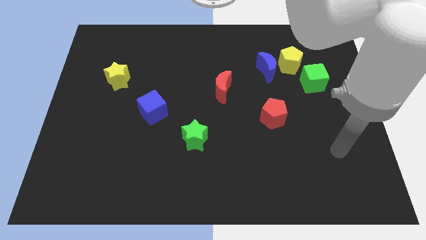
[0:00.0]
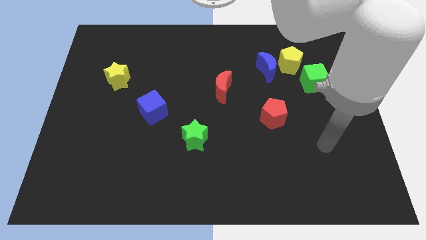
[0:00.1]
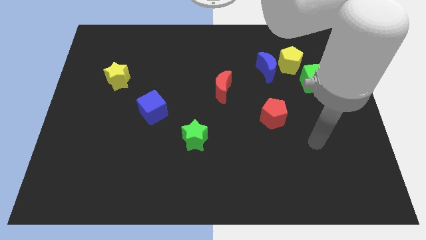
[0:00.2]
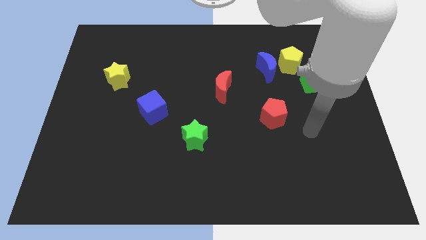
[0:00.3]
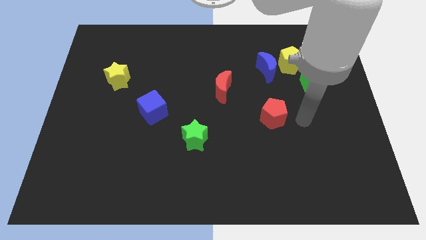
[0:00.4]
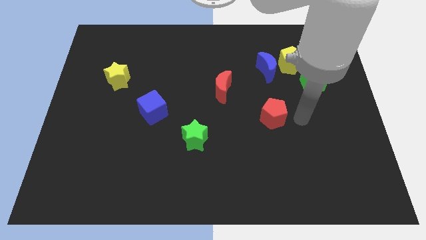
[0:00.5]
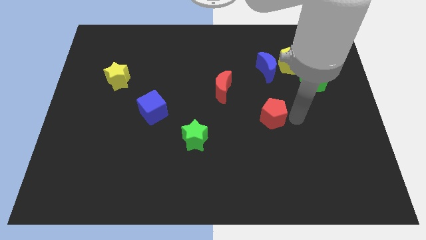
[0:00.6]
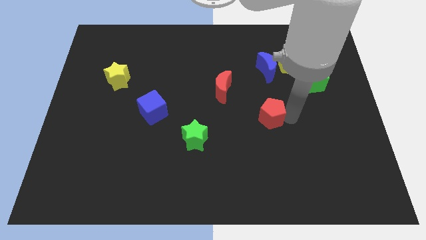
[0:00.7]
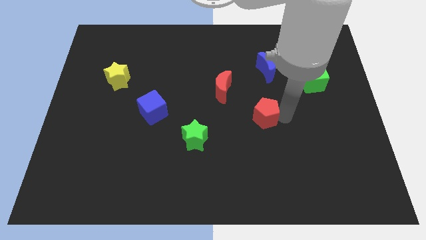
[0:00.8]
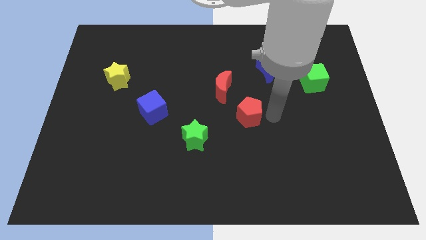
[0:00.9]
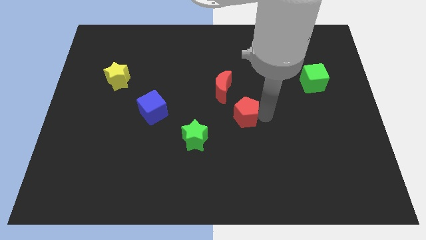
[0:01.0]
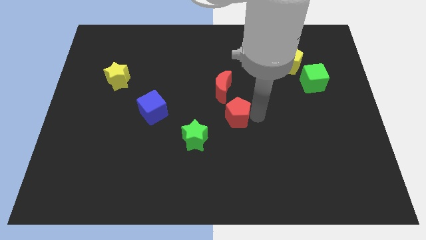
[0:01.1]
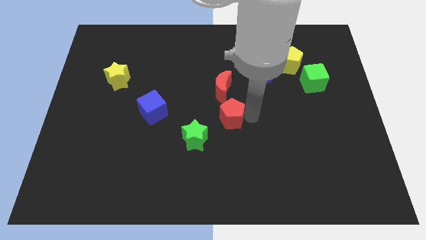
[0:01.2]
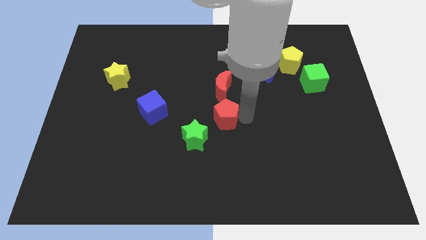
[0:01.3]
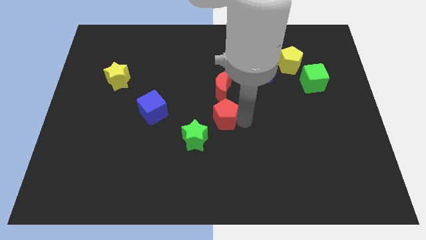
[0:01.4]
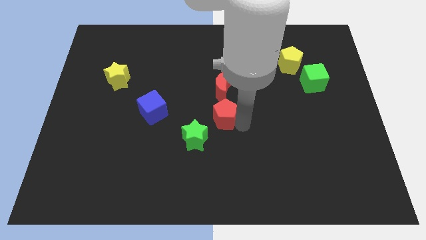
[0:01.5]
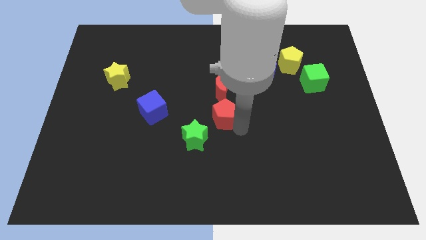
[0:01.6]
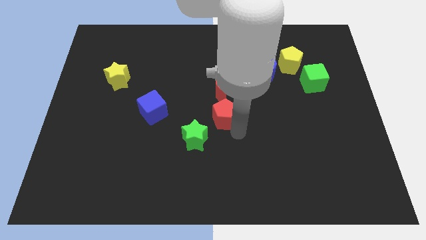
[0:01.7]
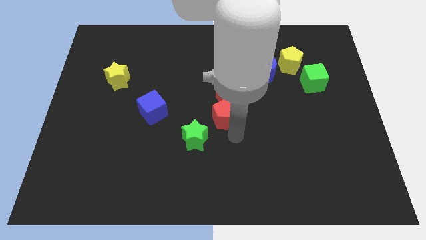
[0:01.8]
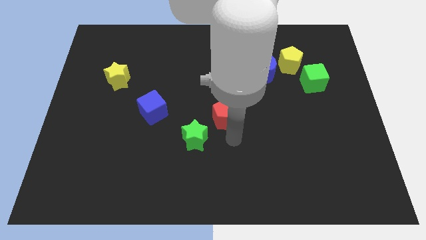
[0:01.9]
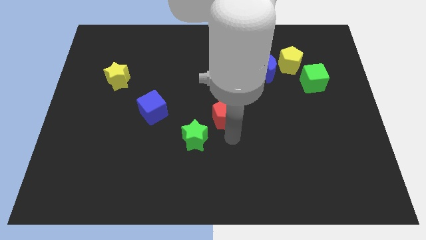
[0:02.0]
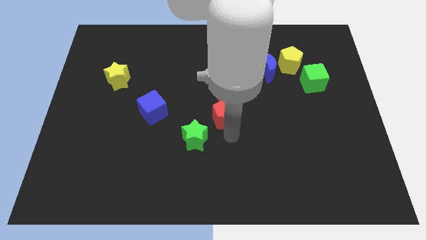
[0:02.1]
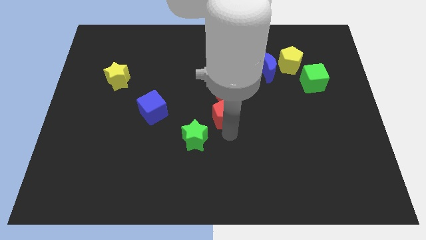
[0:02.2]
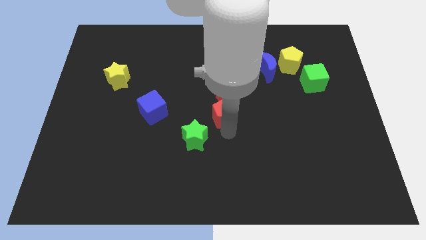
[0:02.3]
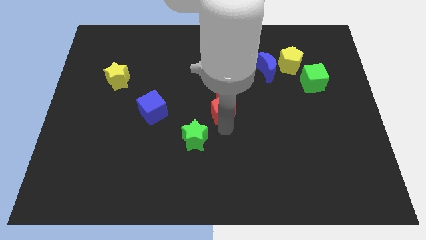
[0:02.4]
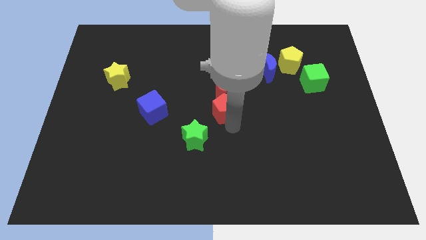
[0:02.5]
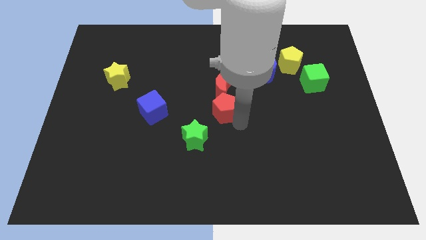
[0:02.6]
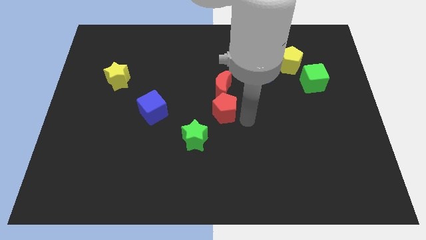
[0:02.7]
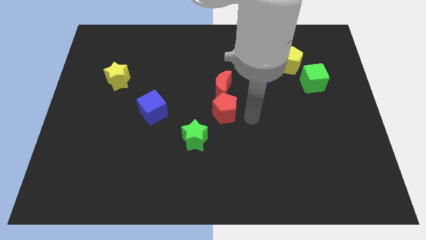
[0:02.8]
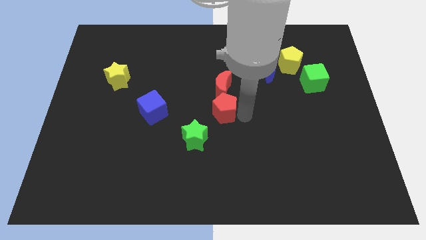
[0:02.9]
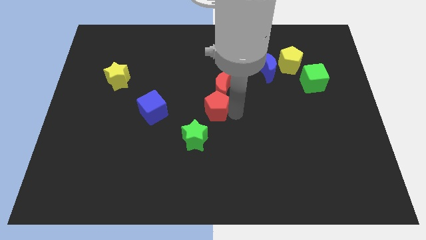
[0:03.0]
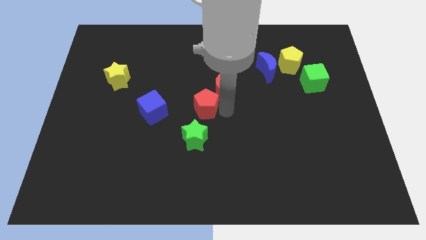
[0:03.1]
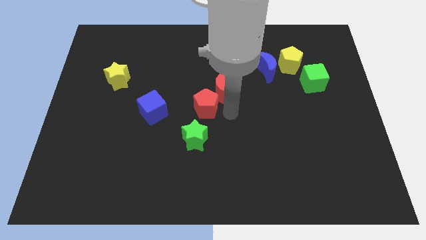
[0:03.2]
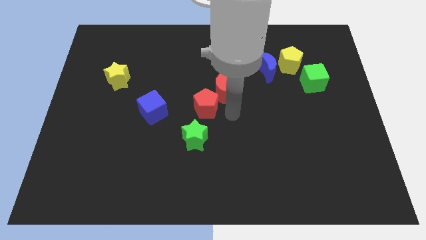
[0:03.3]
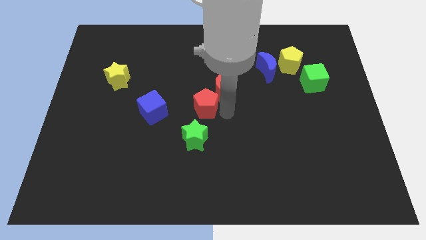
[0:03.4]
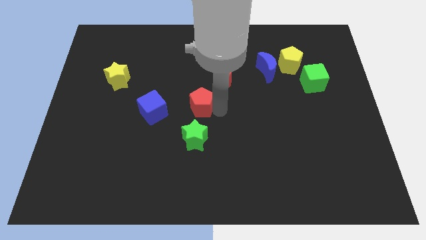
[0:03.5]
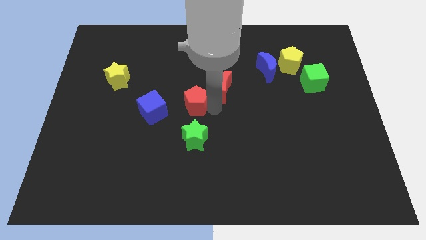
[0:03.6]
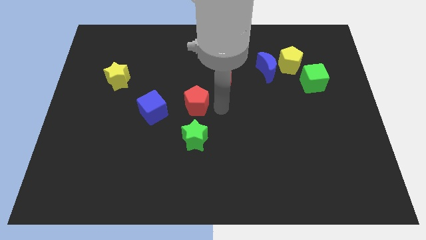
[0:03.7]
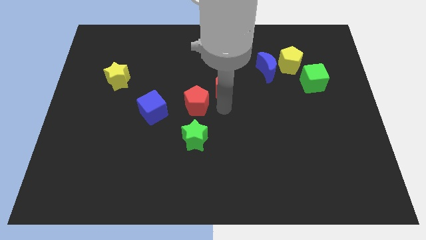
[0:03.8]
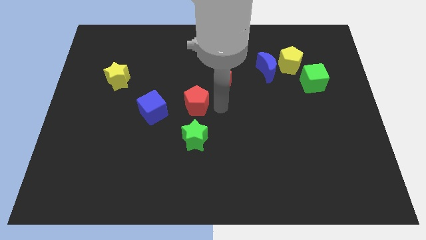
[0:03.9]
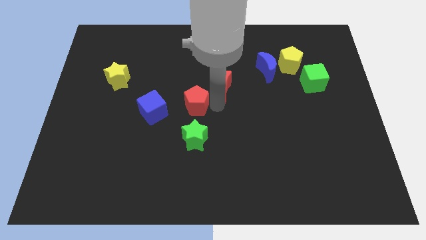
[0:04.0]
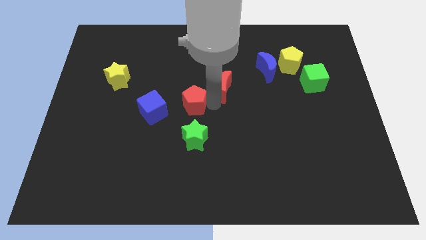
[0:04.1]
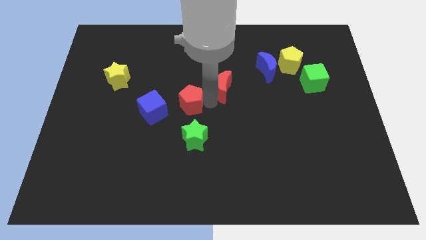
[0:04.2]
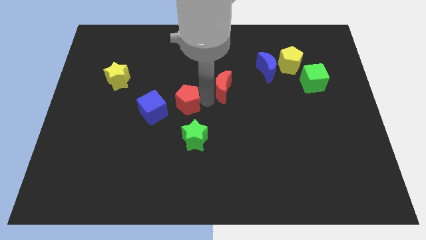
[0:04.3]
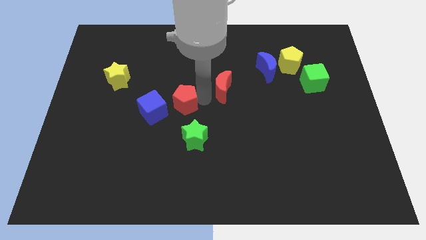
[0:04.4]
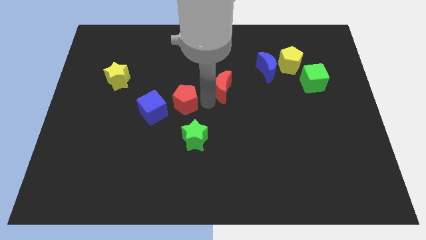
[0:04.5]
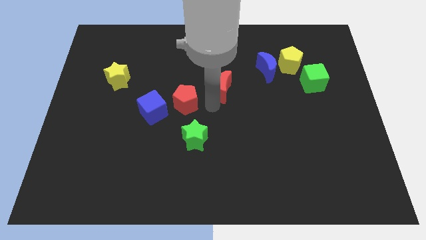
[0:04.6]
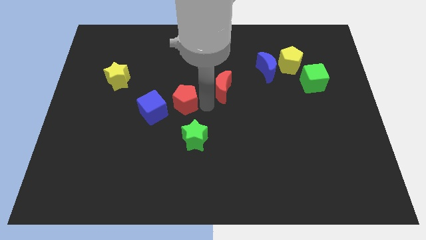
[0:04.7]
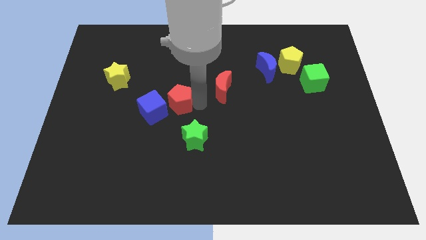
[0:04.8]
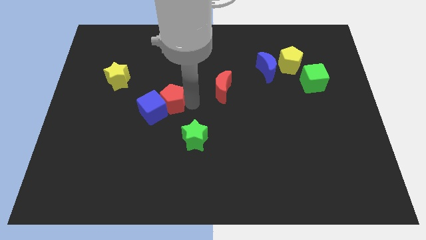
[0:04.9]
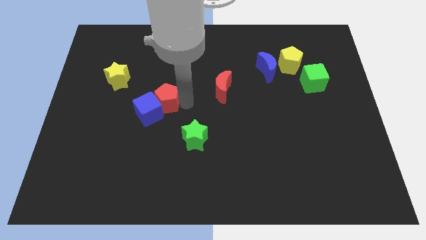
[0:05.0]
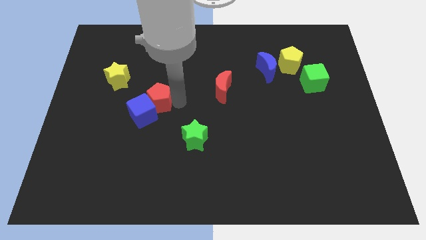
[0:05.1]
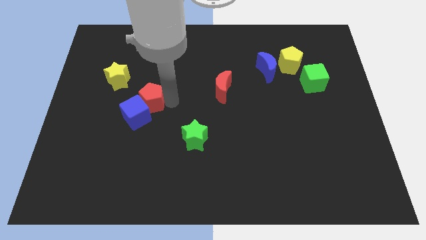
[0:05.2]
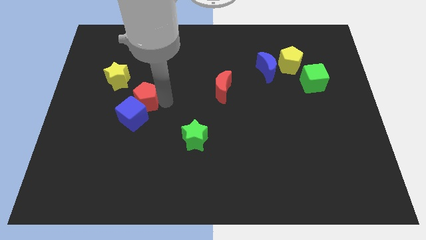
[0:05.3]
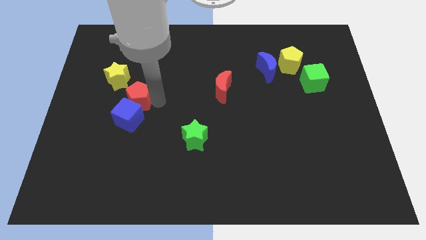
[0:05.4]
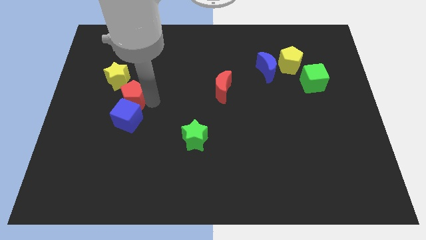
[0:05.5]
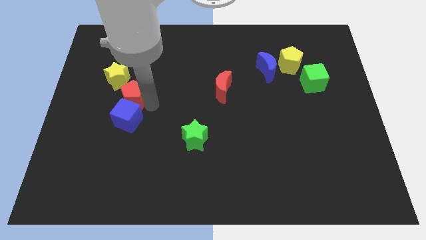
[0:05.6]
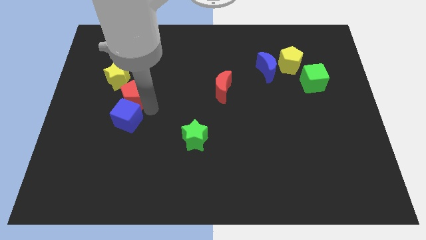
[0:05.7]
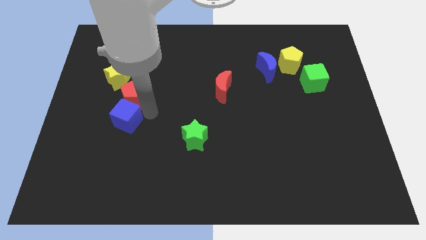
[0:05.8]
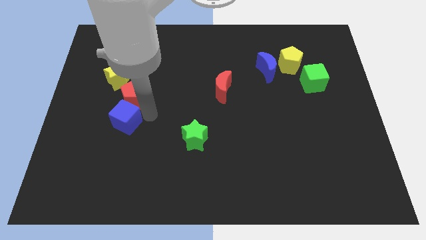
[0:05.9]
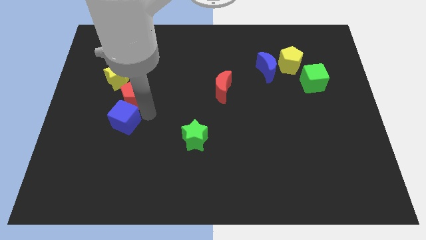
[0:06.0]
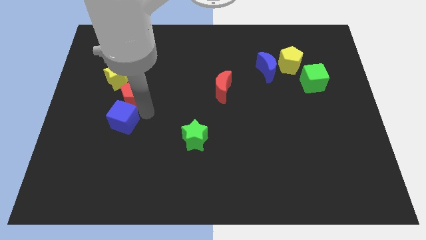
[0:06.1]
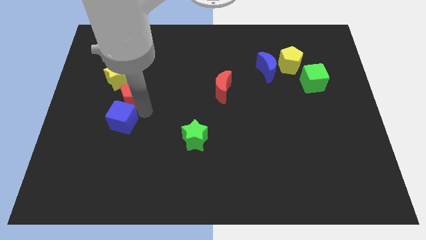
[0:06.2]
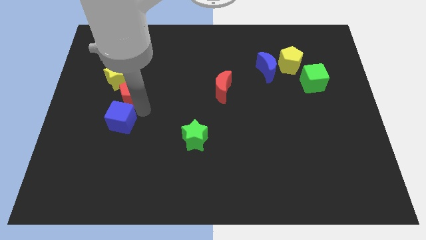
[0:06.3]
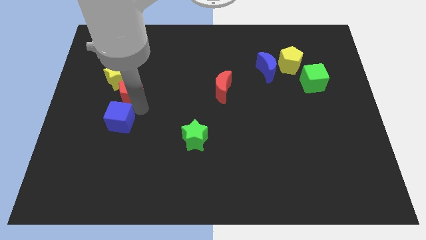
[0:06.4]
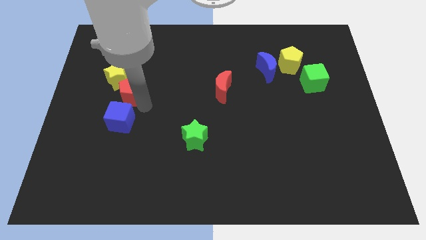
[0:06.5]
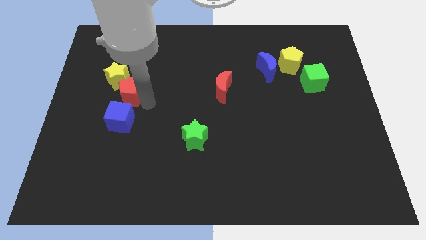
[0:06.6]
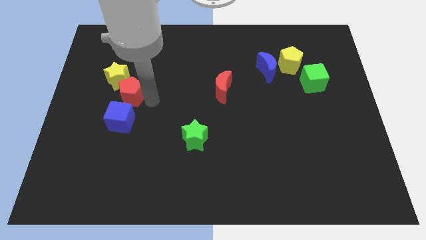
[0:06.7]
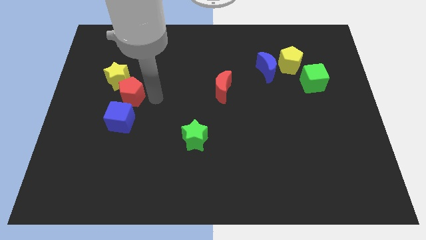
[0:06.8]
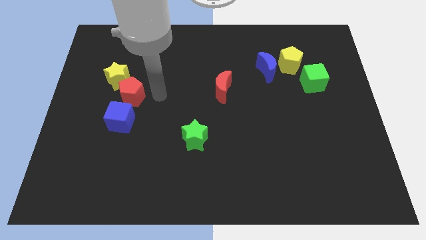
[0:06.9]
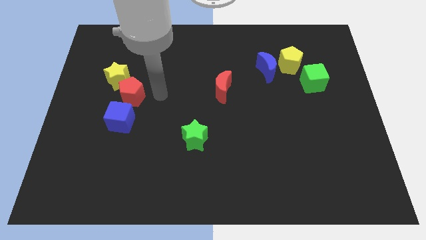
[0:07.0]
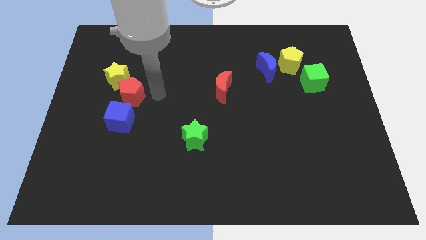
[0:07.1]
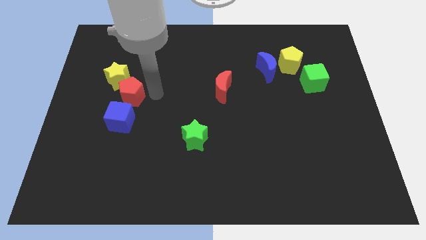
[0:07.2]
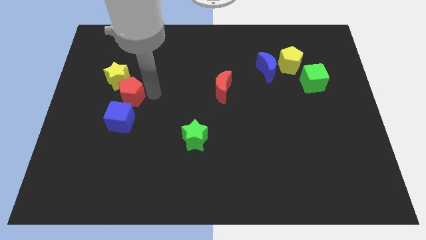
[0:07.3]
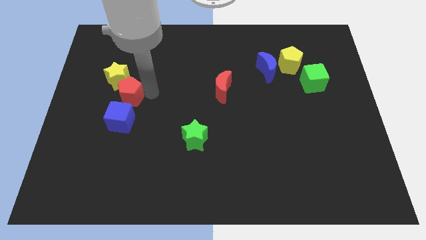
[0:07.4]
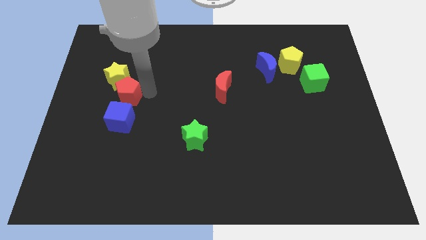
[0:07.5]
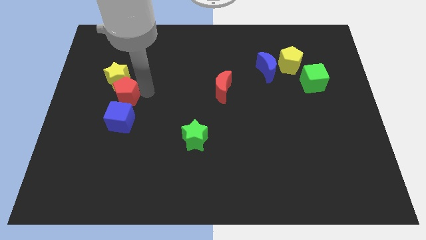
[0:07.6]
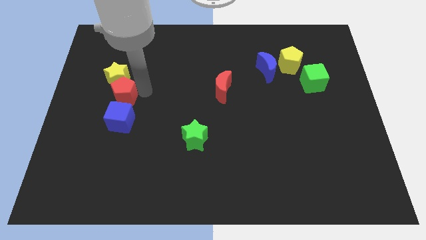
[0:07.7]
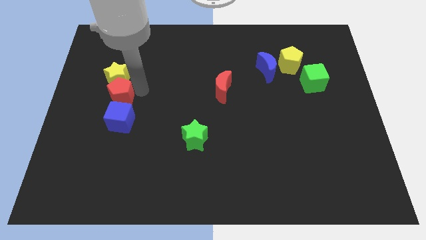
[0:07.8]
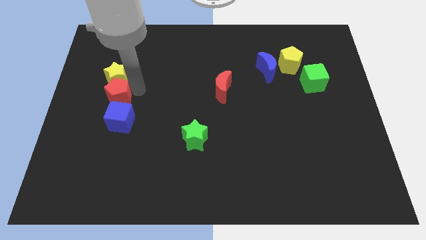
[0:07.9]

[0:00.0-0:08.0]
push the red pentagon to the bottom left of the yellow star
